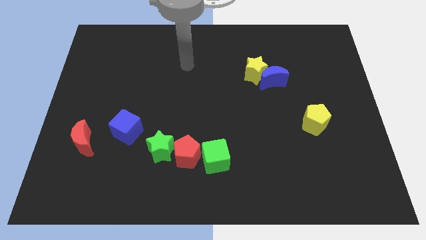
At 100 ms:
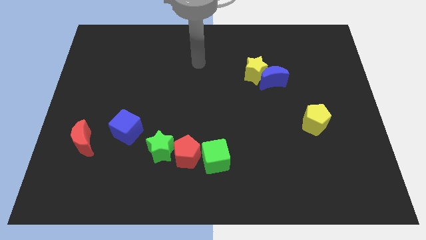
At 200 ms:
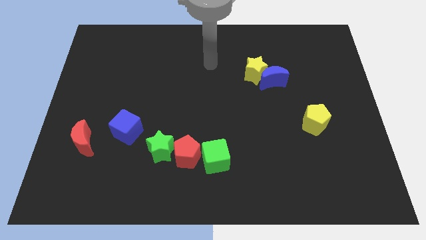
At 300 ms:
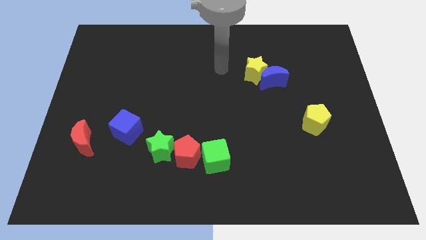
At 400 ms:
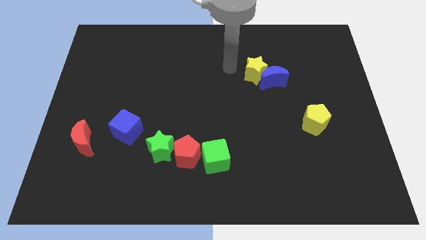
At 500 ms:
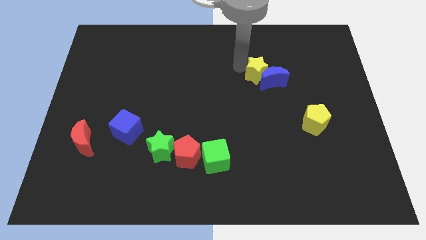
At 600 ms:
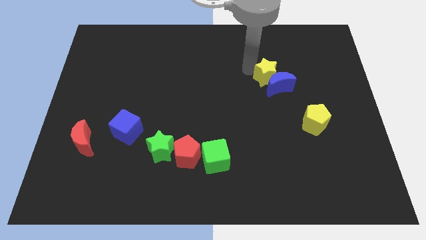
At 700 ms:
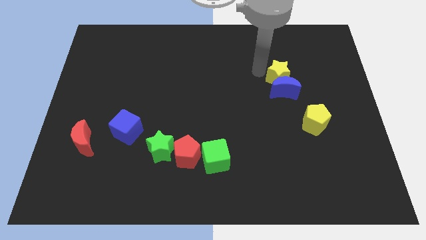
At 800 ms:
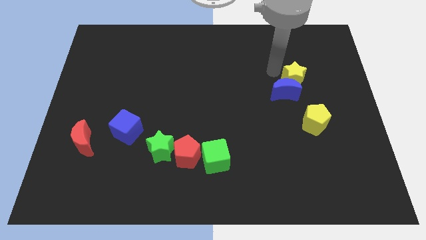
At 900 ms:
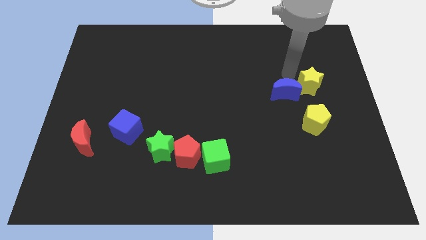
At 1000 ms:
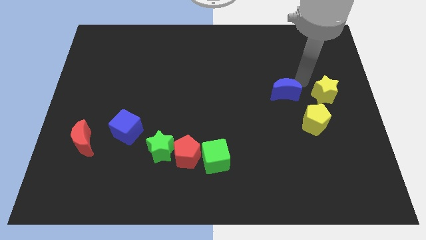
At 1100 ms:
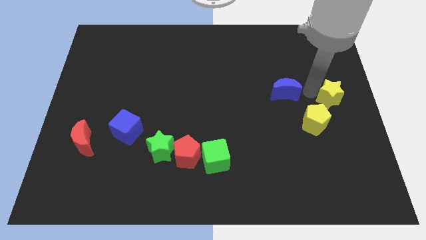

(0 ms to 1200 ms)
separate the blue moon from the yellow star

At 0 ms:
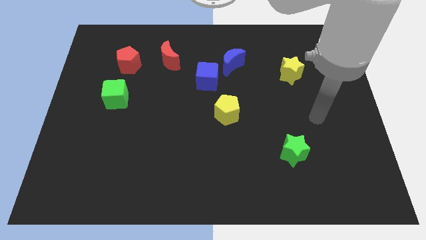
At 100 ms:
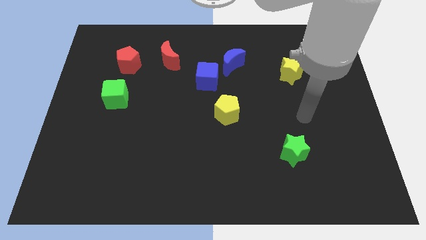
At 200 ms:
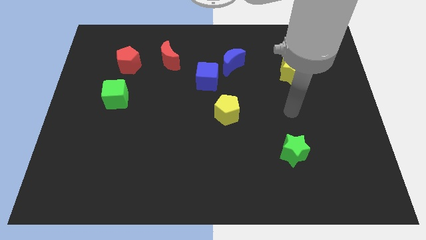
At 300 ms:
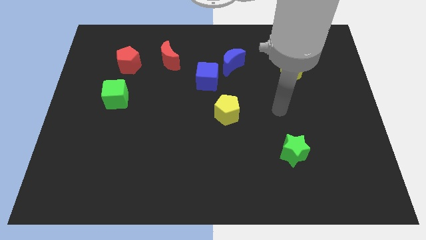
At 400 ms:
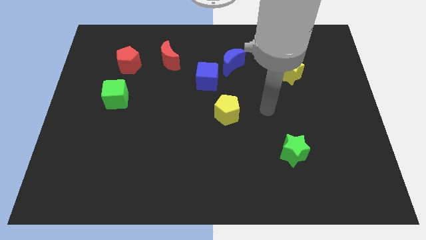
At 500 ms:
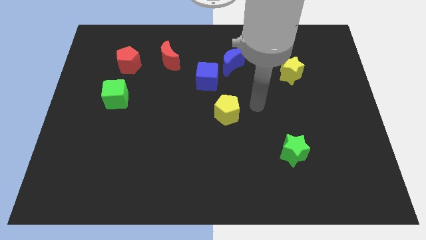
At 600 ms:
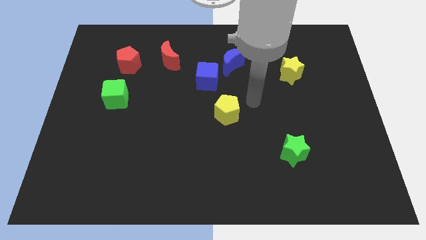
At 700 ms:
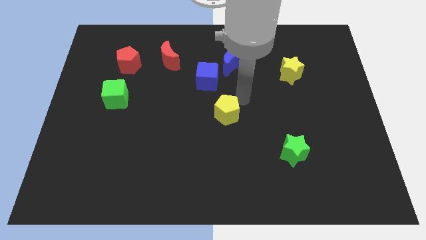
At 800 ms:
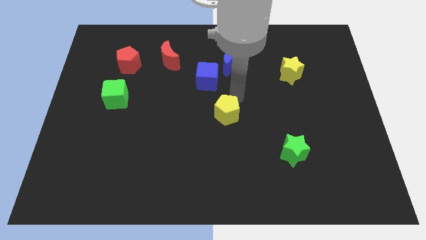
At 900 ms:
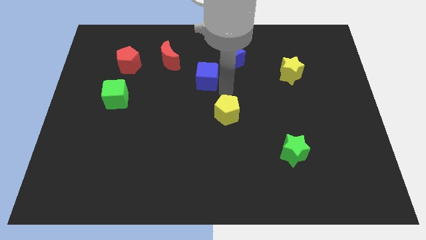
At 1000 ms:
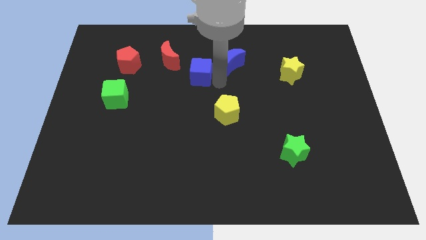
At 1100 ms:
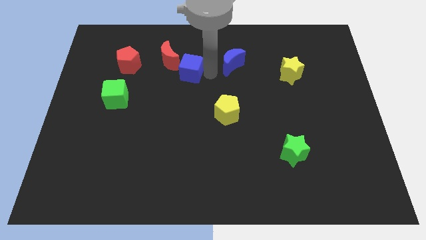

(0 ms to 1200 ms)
separate the blue moon from the blue cube

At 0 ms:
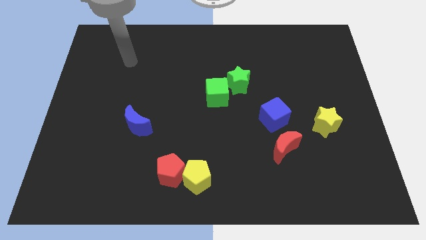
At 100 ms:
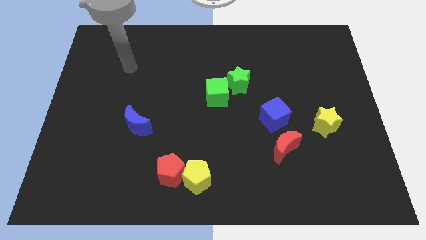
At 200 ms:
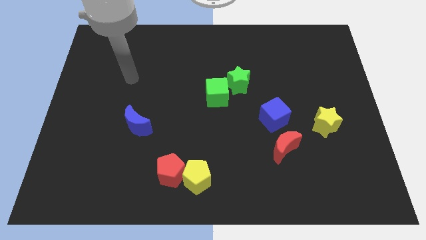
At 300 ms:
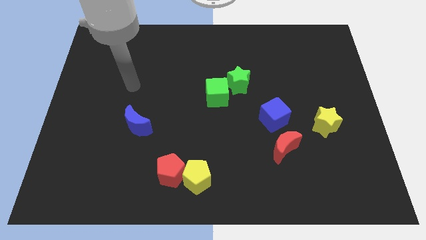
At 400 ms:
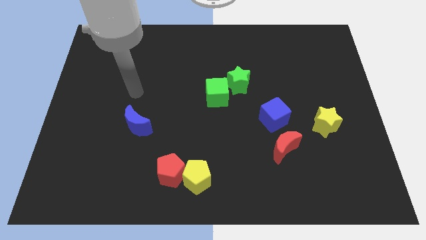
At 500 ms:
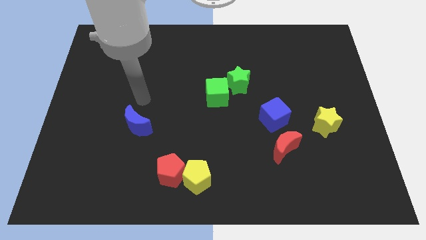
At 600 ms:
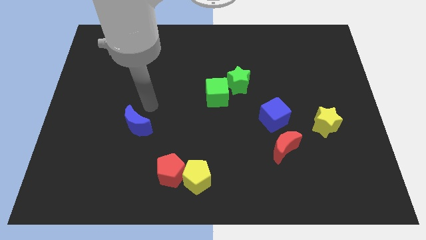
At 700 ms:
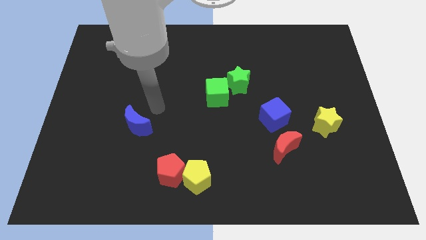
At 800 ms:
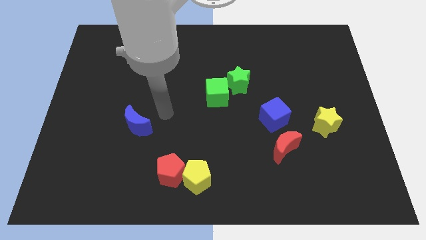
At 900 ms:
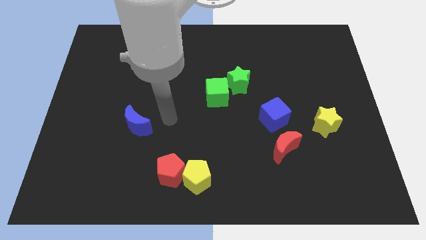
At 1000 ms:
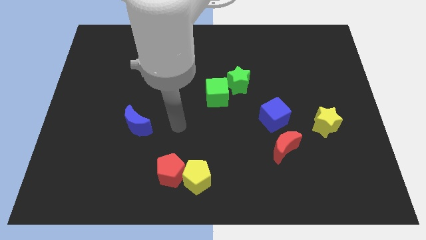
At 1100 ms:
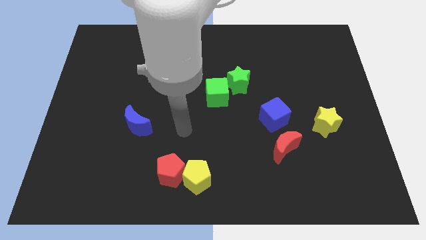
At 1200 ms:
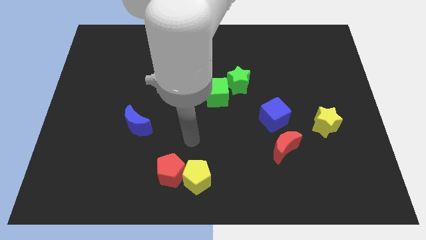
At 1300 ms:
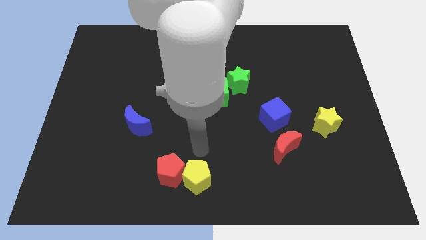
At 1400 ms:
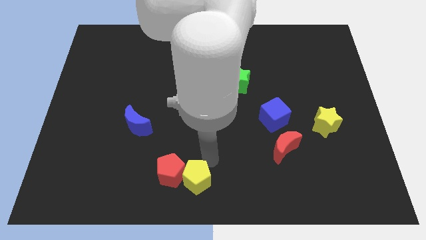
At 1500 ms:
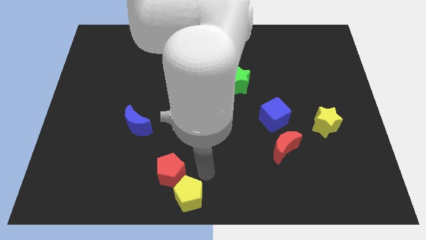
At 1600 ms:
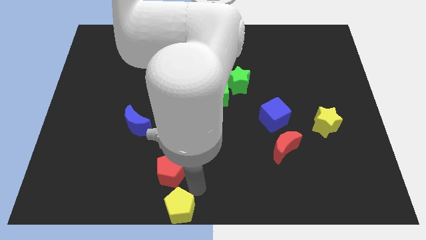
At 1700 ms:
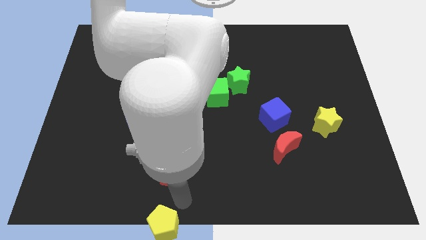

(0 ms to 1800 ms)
separate the red pentagon from the yellow pentagon

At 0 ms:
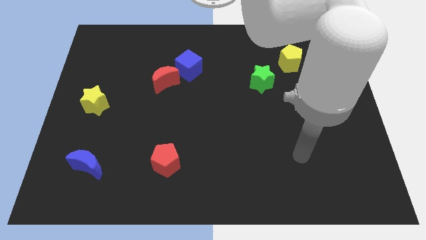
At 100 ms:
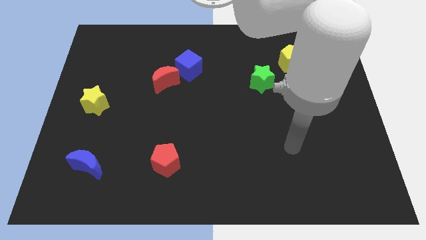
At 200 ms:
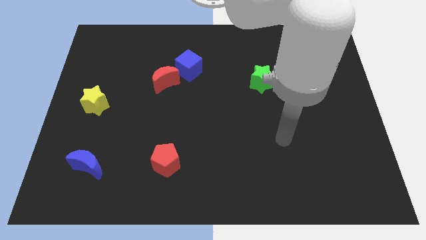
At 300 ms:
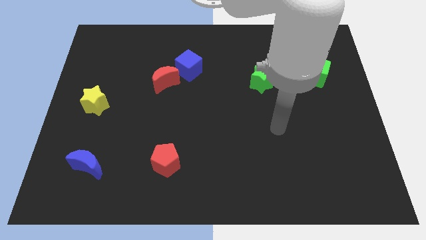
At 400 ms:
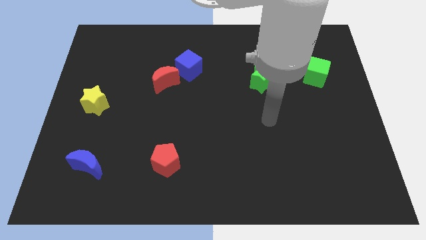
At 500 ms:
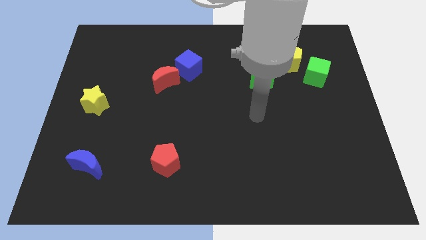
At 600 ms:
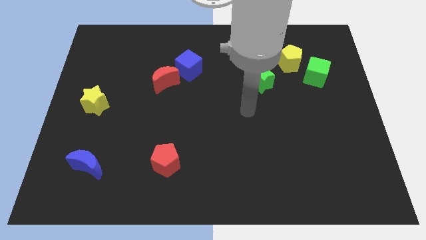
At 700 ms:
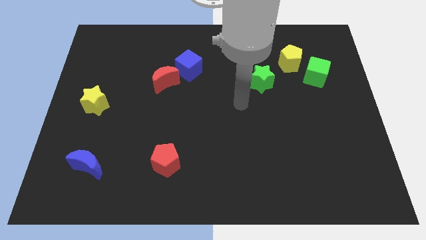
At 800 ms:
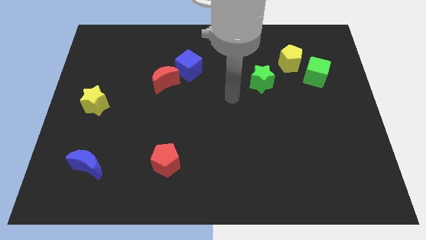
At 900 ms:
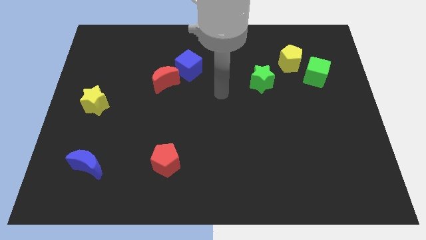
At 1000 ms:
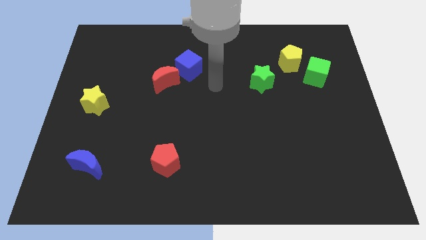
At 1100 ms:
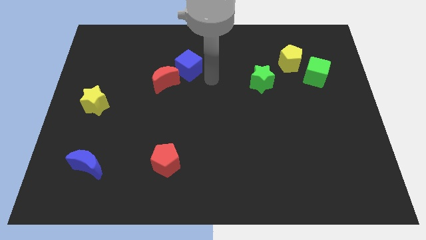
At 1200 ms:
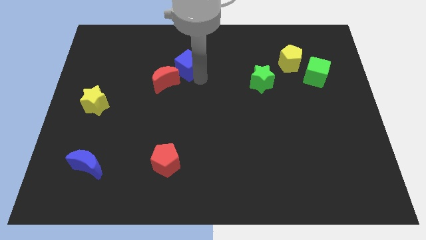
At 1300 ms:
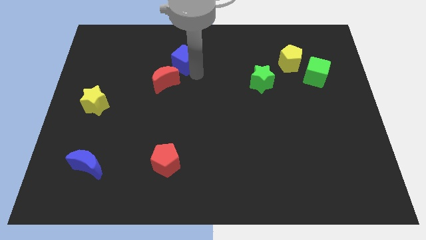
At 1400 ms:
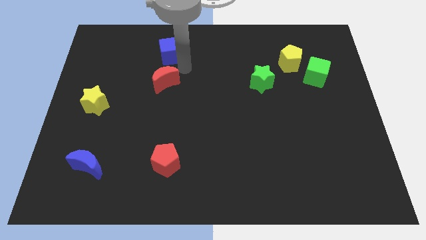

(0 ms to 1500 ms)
separate the red moon from the blue cube

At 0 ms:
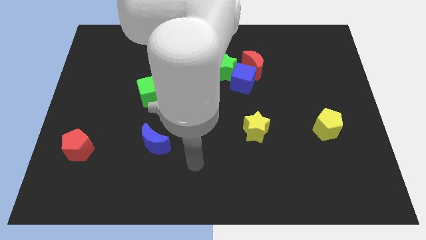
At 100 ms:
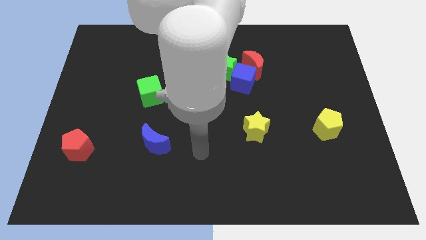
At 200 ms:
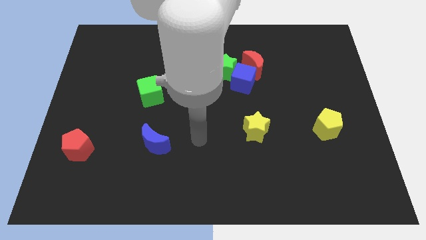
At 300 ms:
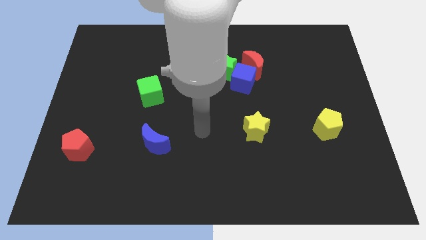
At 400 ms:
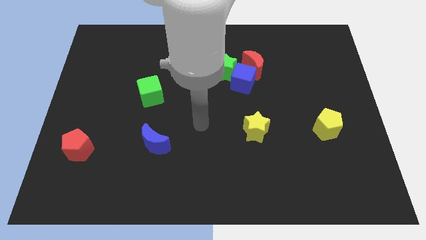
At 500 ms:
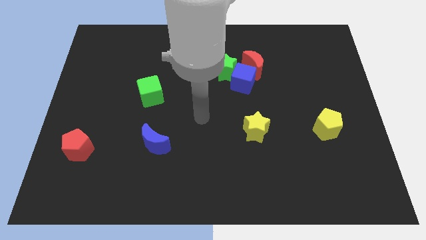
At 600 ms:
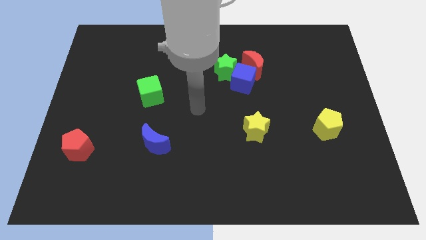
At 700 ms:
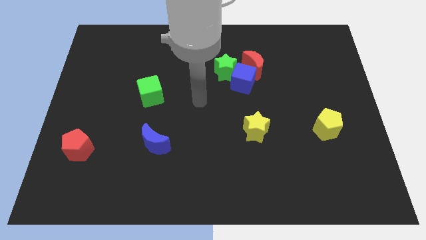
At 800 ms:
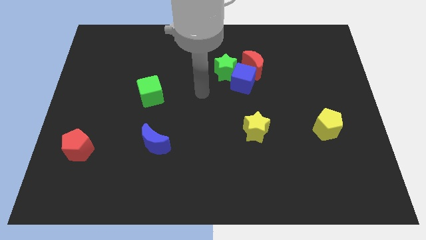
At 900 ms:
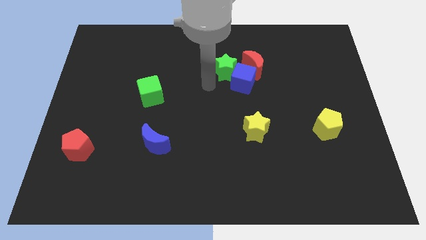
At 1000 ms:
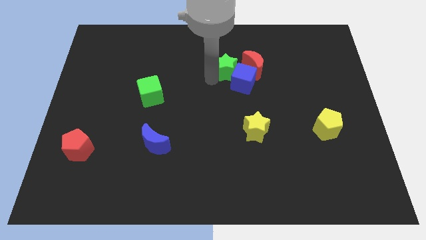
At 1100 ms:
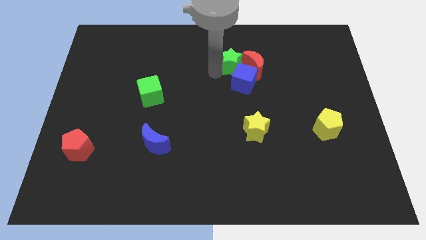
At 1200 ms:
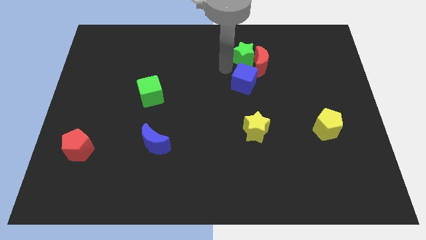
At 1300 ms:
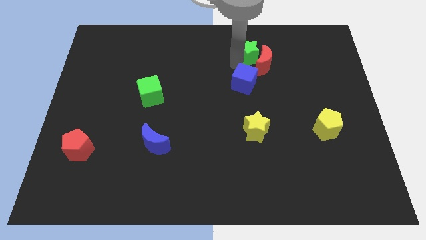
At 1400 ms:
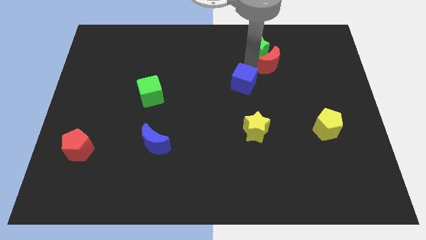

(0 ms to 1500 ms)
separate the blue cube from the green star and red moon

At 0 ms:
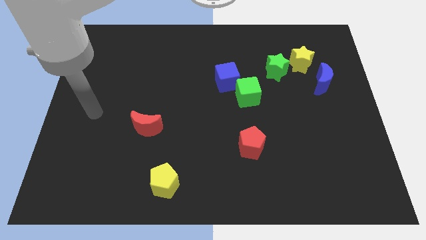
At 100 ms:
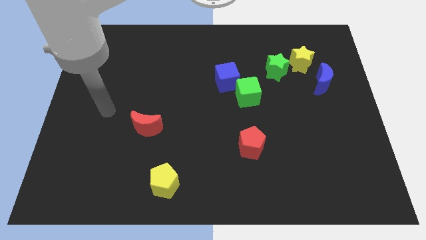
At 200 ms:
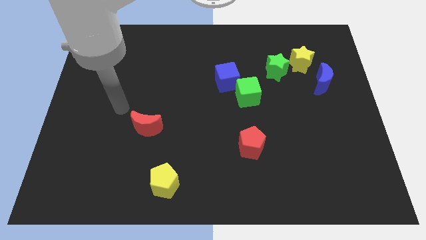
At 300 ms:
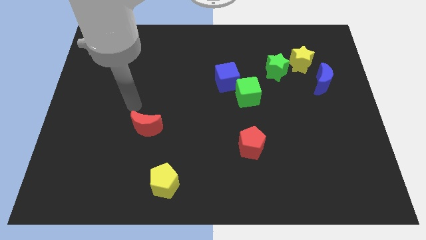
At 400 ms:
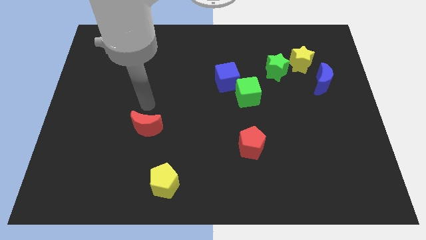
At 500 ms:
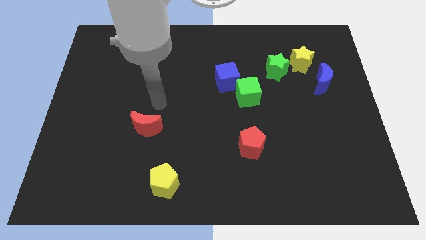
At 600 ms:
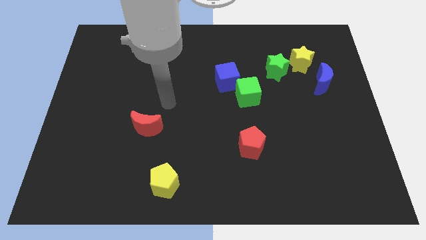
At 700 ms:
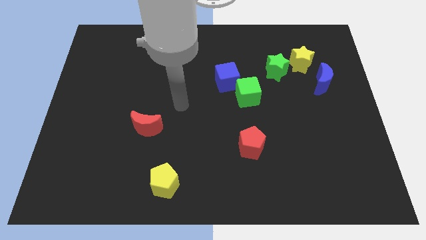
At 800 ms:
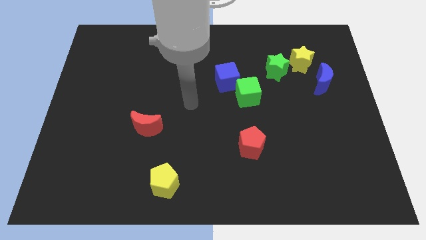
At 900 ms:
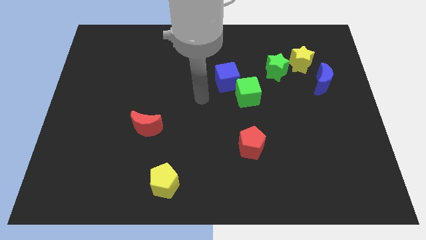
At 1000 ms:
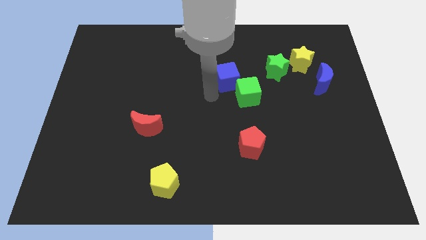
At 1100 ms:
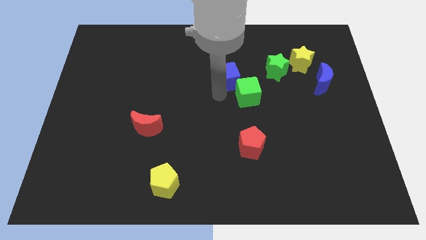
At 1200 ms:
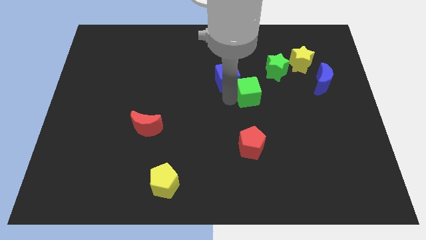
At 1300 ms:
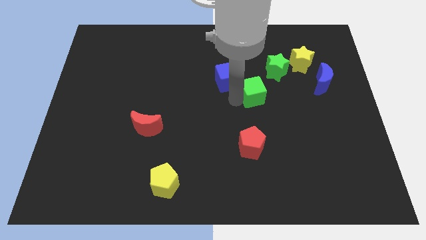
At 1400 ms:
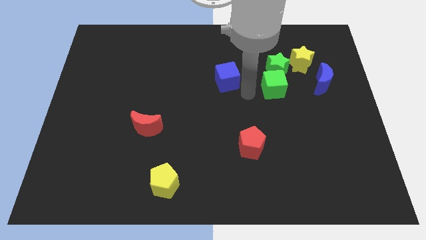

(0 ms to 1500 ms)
pull the blue cube apart from the green cube

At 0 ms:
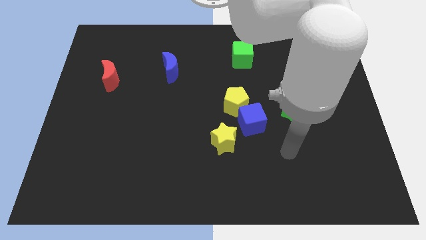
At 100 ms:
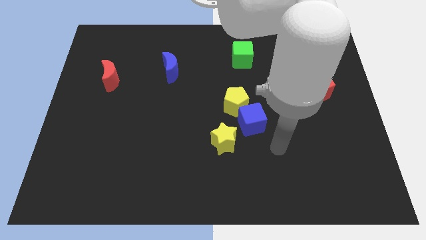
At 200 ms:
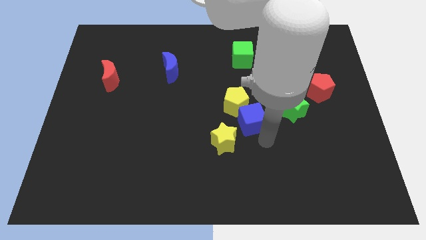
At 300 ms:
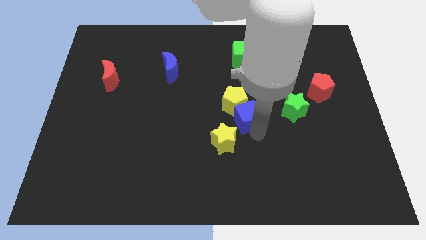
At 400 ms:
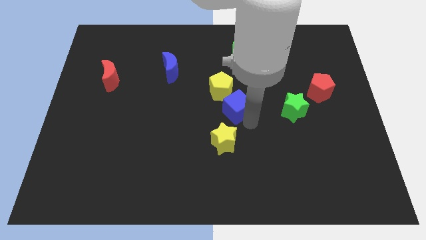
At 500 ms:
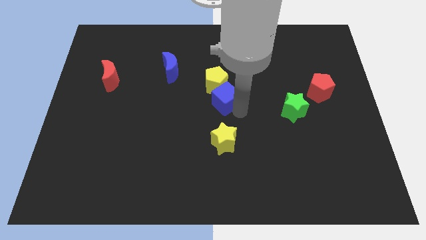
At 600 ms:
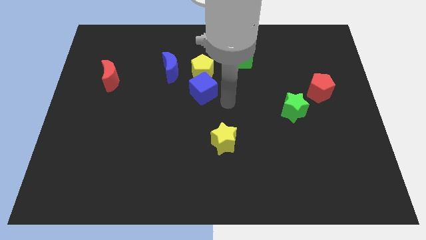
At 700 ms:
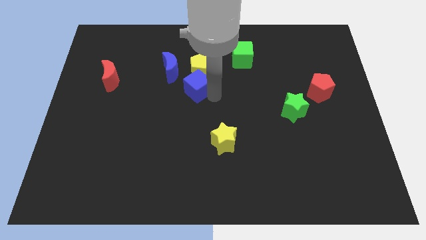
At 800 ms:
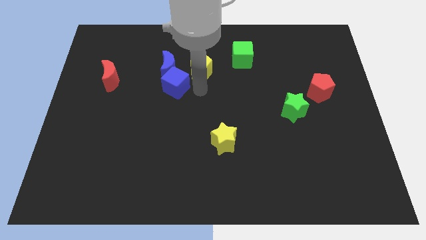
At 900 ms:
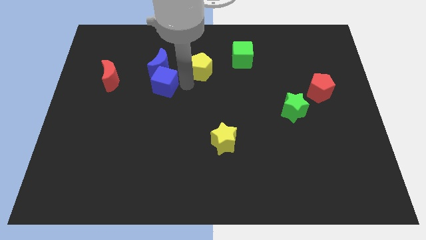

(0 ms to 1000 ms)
separate the yellow pentagon from the blue cube
